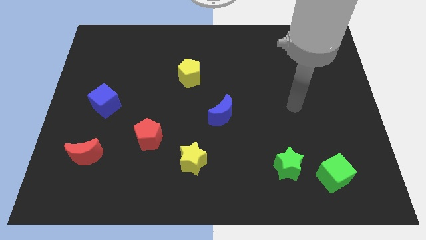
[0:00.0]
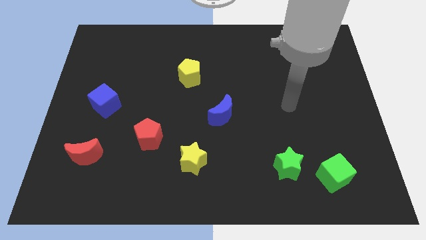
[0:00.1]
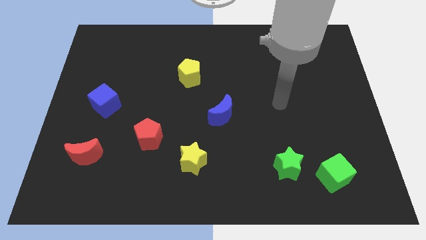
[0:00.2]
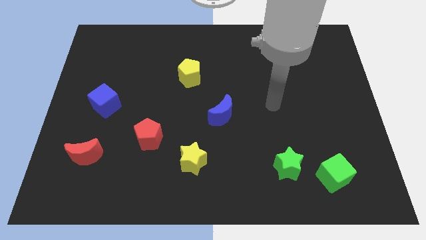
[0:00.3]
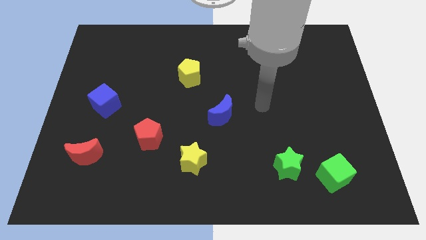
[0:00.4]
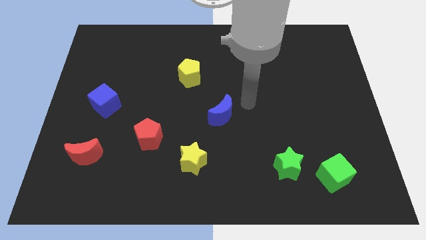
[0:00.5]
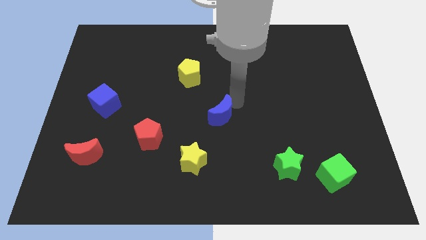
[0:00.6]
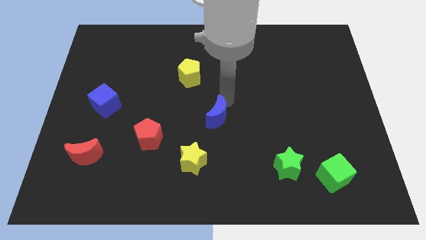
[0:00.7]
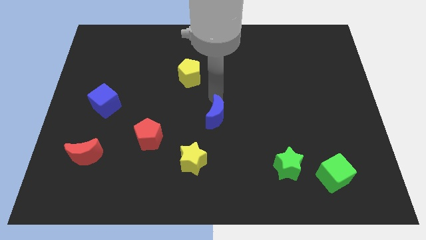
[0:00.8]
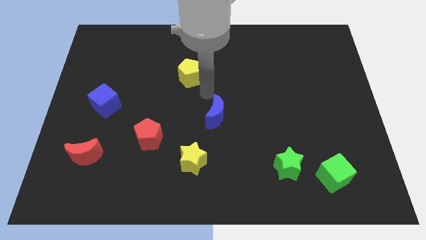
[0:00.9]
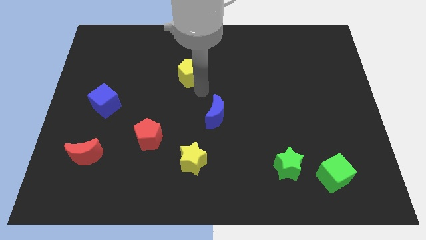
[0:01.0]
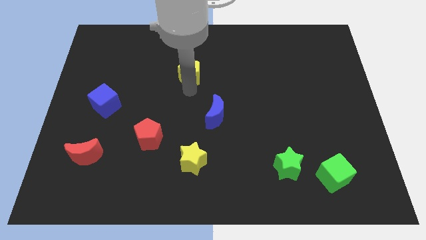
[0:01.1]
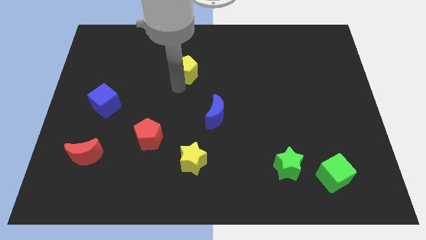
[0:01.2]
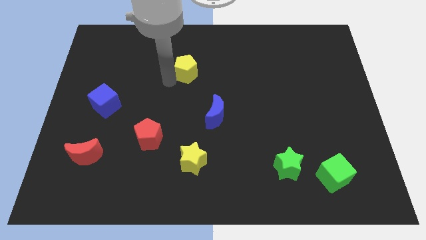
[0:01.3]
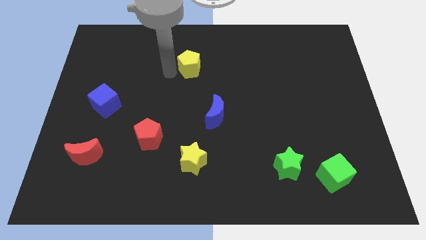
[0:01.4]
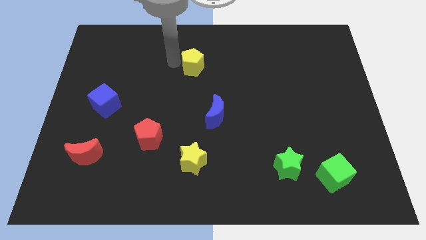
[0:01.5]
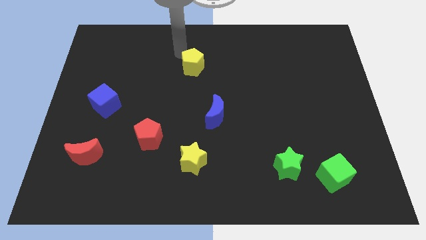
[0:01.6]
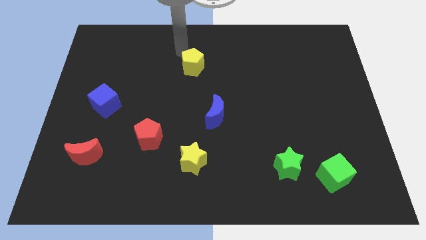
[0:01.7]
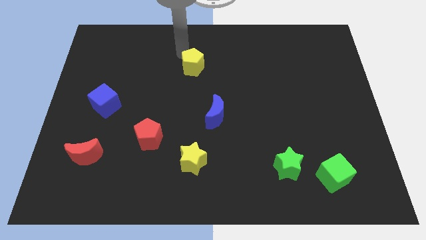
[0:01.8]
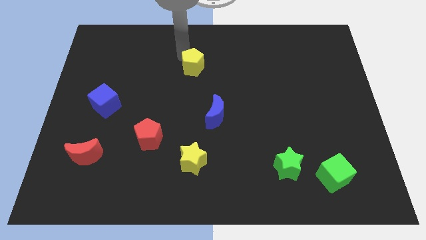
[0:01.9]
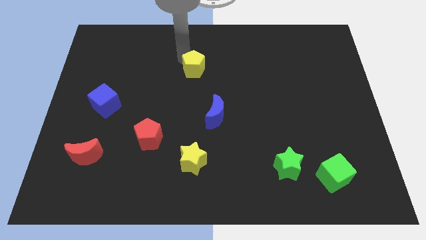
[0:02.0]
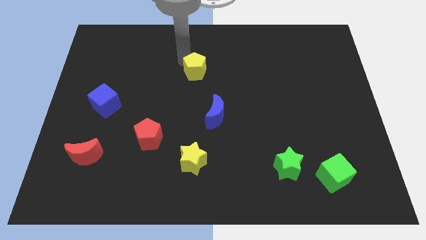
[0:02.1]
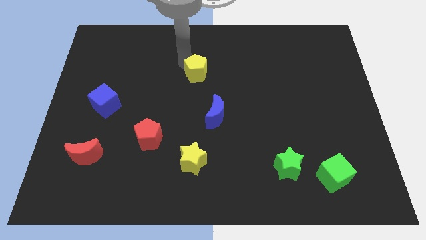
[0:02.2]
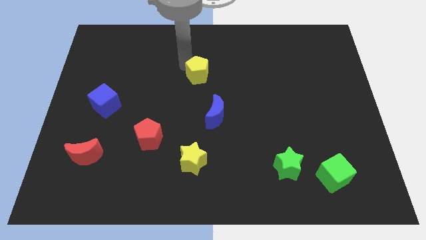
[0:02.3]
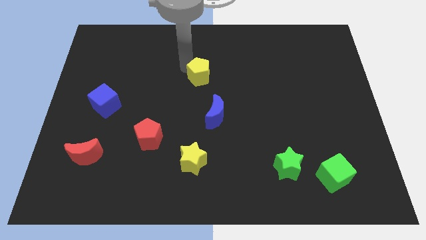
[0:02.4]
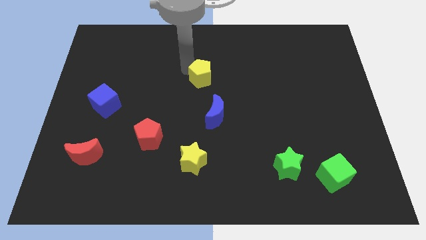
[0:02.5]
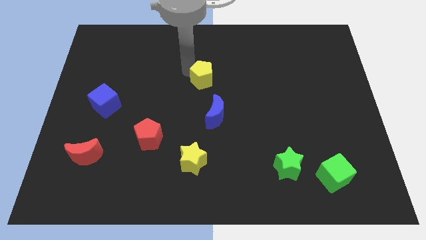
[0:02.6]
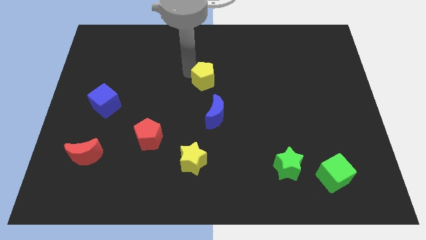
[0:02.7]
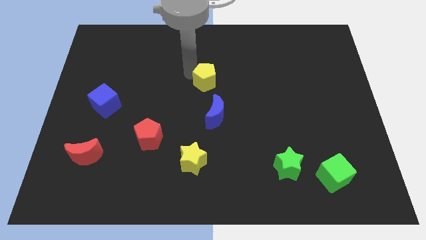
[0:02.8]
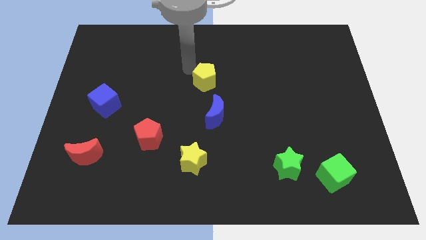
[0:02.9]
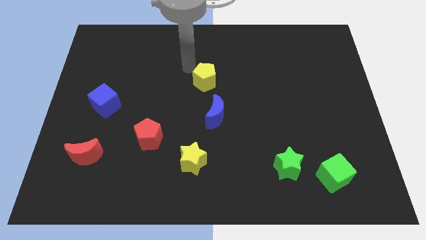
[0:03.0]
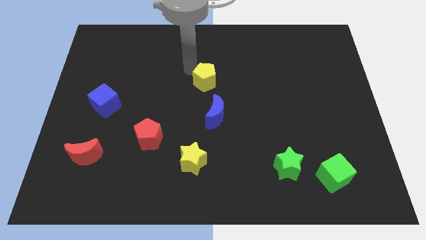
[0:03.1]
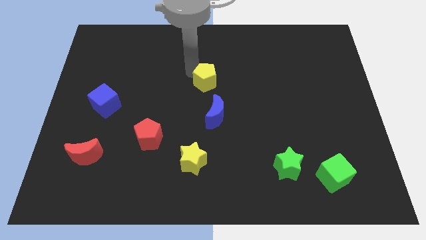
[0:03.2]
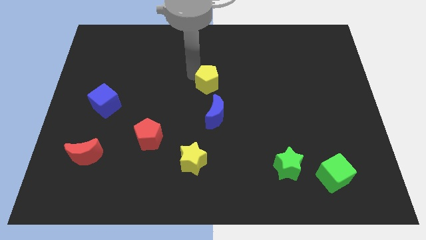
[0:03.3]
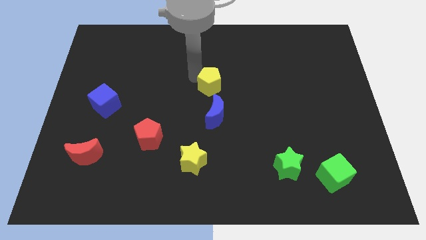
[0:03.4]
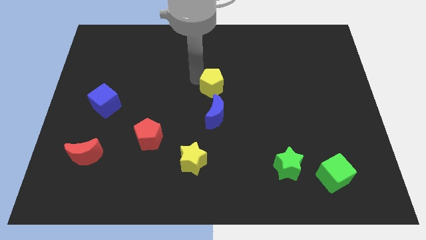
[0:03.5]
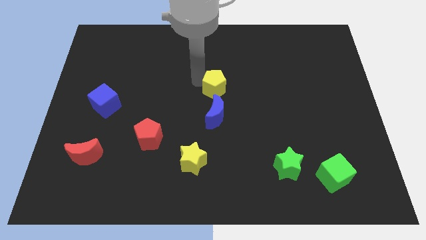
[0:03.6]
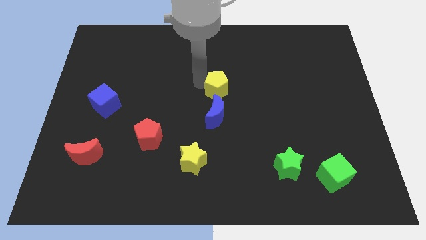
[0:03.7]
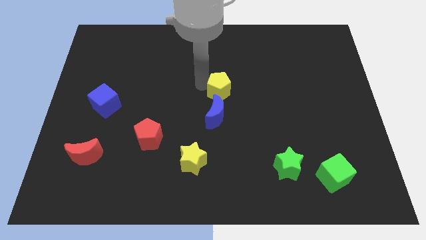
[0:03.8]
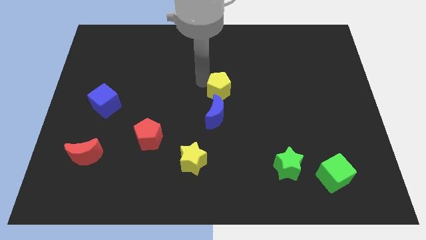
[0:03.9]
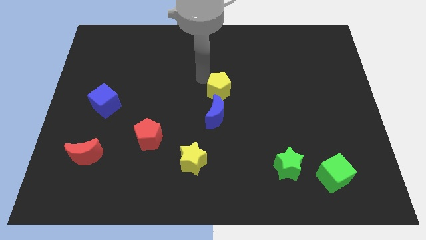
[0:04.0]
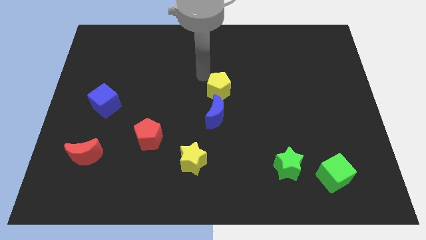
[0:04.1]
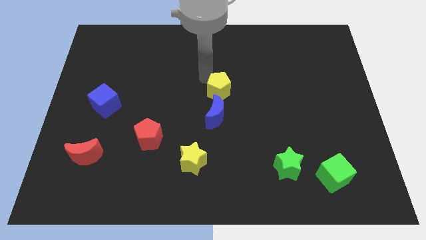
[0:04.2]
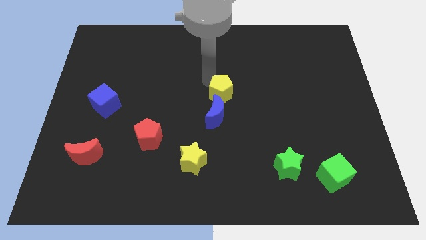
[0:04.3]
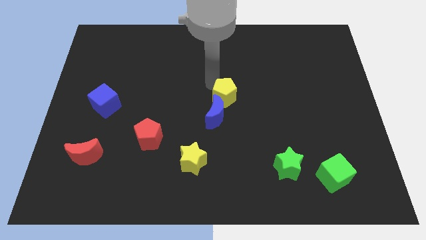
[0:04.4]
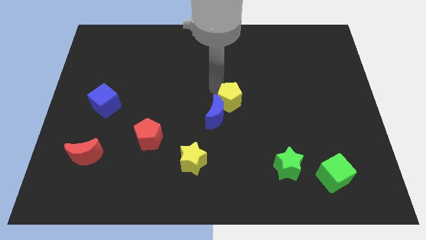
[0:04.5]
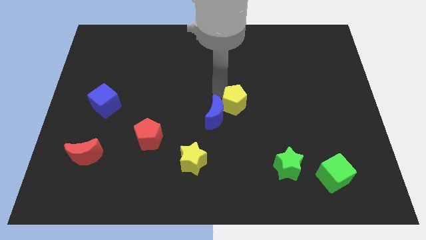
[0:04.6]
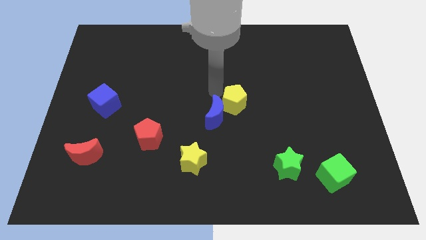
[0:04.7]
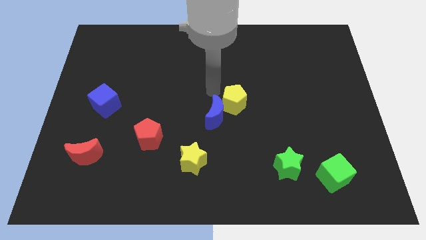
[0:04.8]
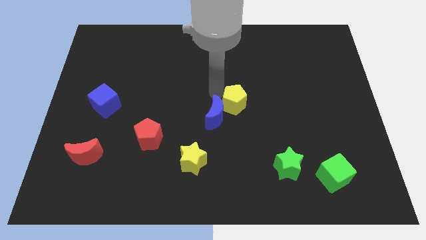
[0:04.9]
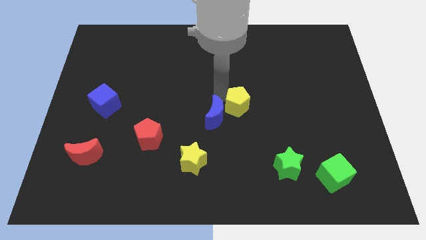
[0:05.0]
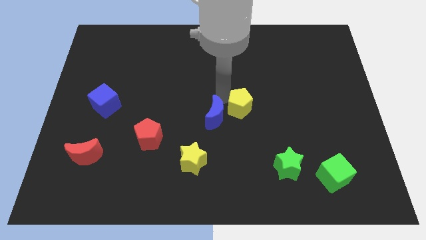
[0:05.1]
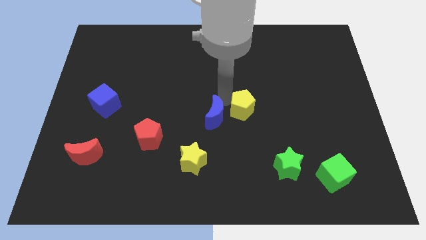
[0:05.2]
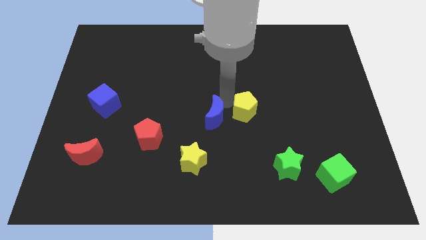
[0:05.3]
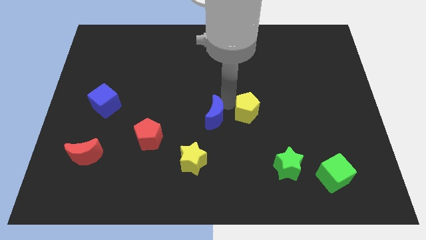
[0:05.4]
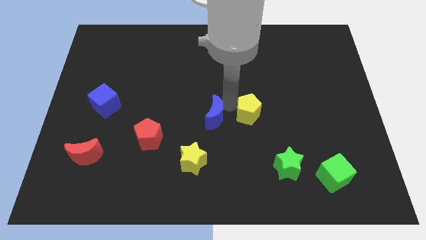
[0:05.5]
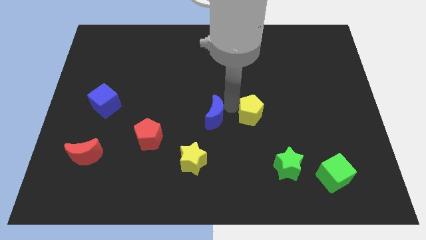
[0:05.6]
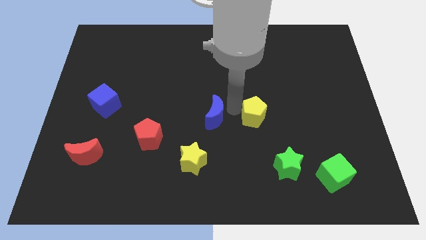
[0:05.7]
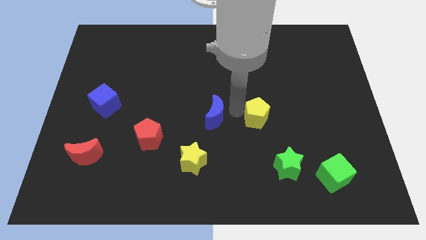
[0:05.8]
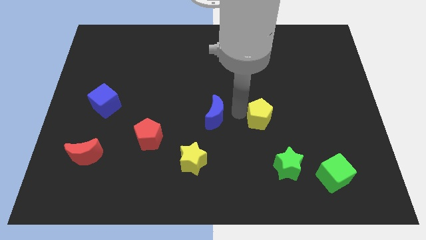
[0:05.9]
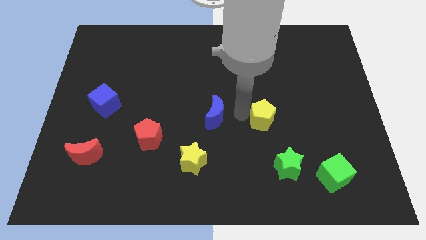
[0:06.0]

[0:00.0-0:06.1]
push the yellow pentagon above the green star
